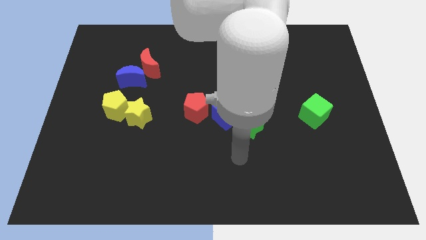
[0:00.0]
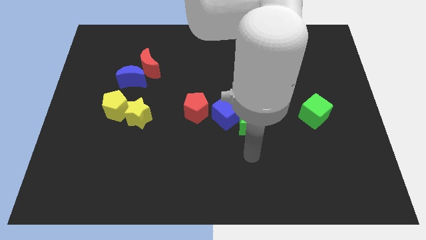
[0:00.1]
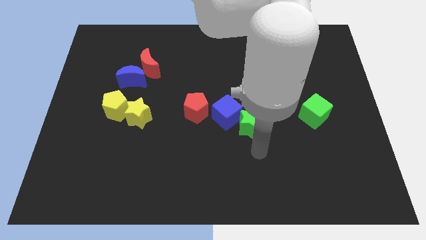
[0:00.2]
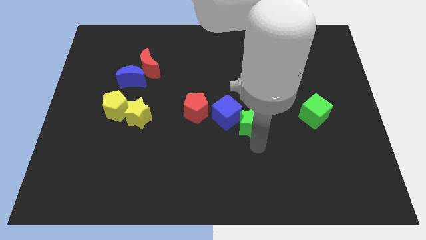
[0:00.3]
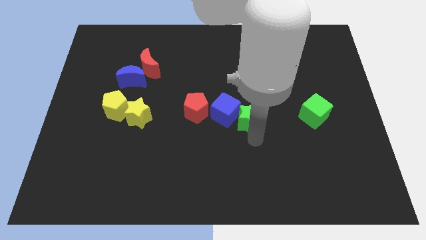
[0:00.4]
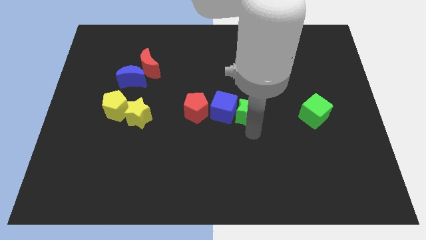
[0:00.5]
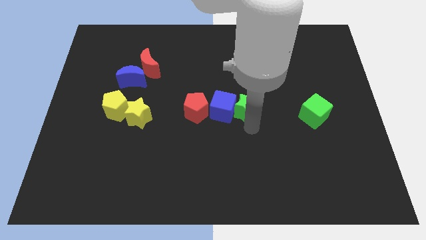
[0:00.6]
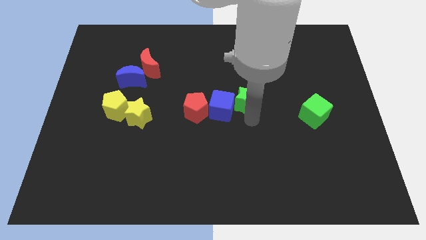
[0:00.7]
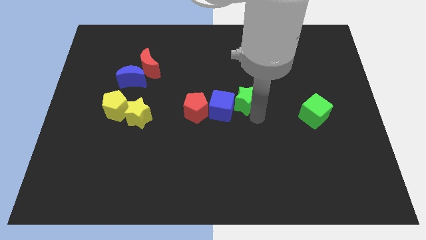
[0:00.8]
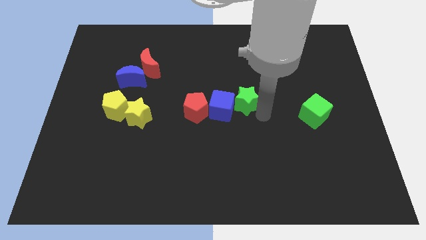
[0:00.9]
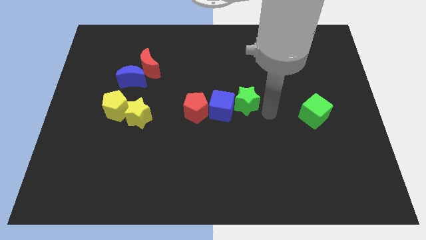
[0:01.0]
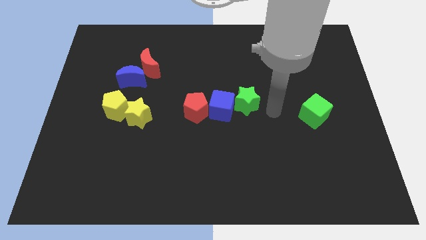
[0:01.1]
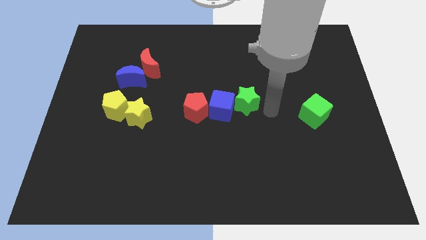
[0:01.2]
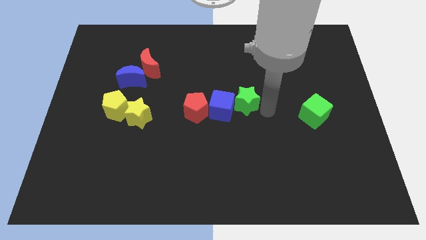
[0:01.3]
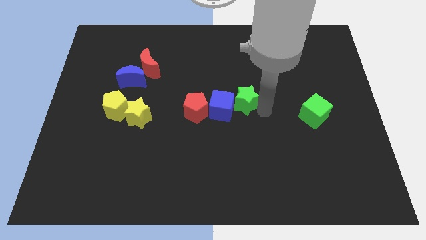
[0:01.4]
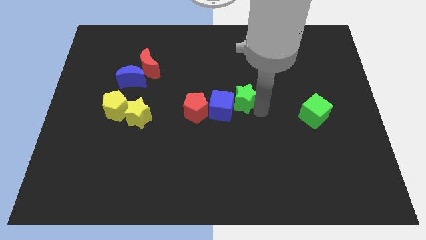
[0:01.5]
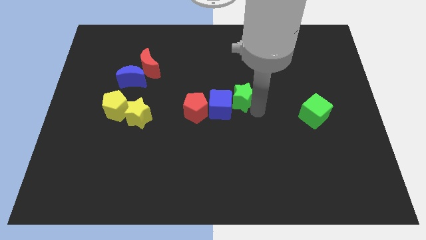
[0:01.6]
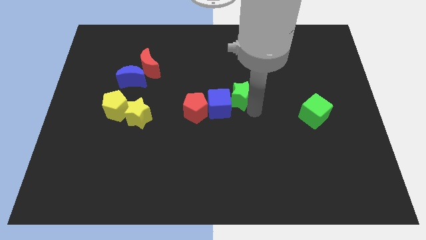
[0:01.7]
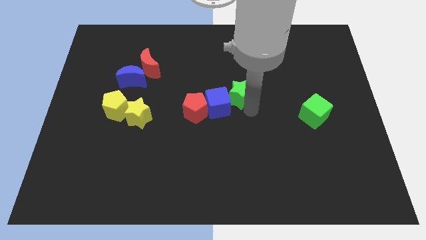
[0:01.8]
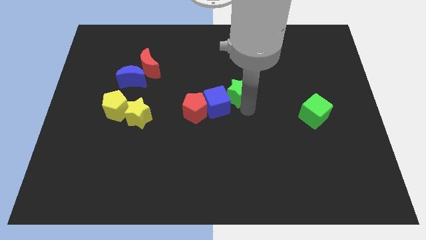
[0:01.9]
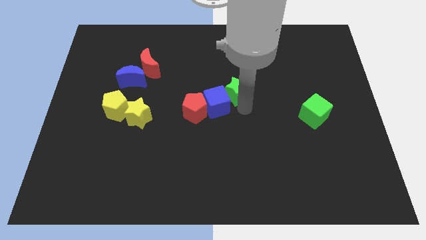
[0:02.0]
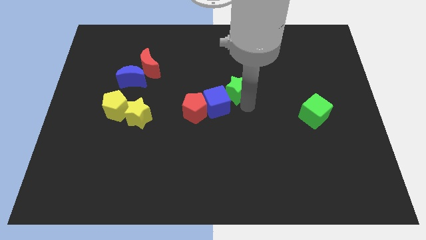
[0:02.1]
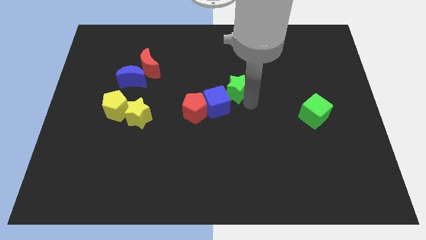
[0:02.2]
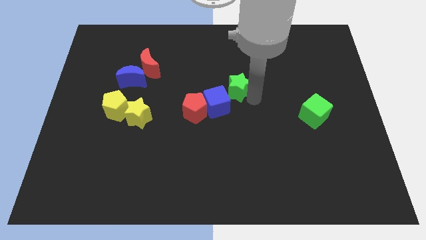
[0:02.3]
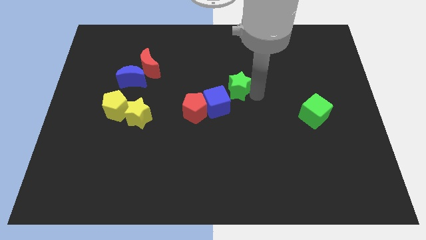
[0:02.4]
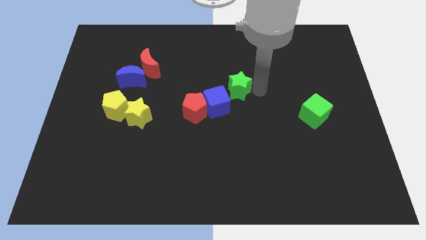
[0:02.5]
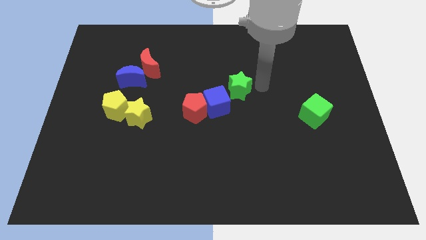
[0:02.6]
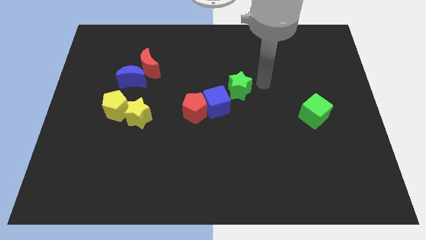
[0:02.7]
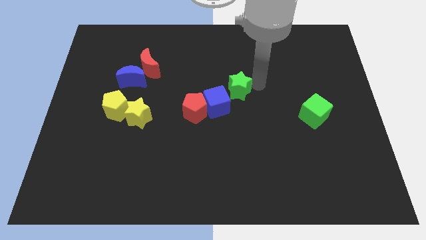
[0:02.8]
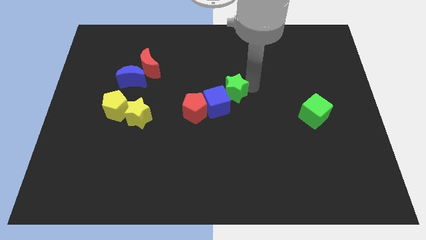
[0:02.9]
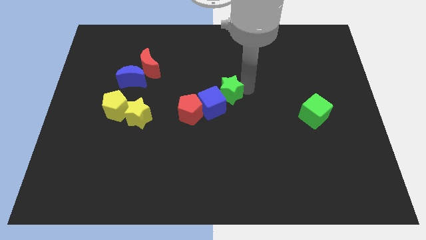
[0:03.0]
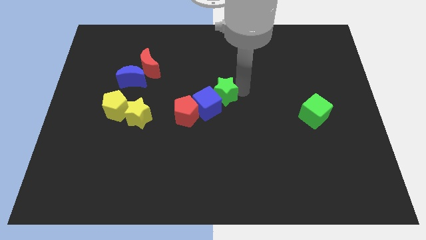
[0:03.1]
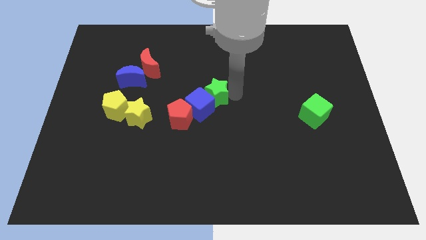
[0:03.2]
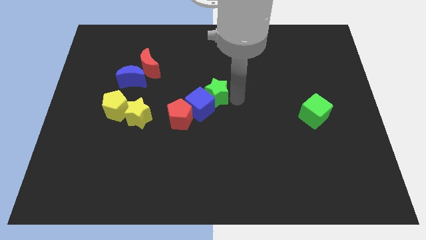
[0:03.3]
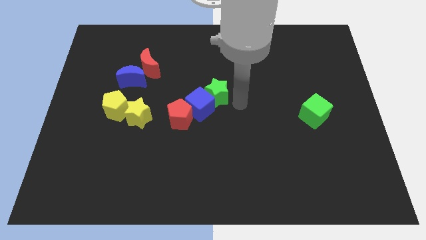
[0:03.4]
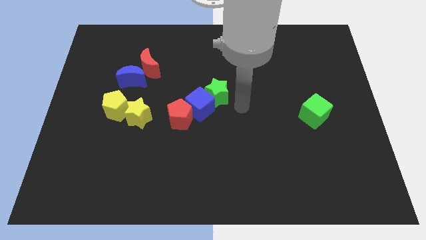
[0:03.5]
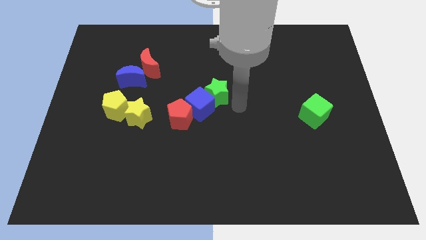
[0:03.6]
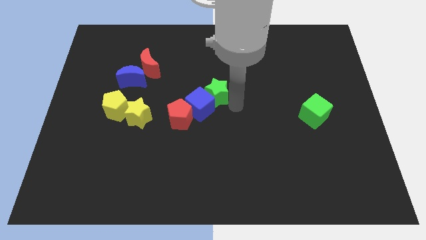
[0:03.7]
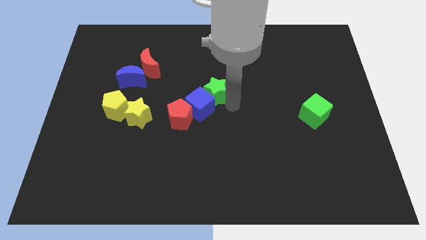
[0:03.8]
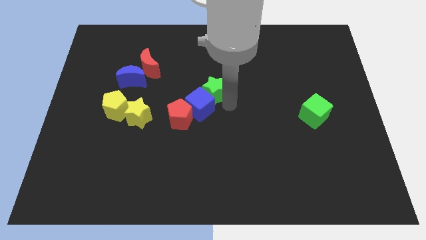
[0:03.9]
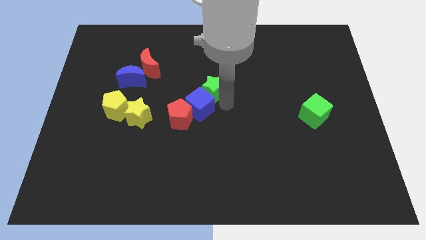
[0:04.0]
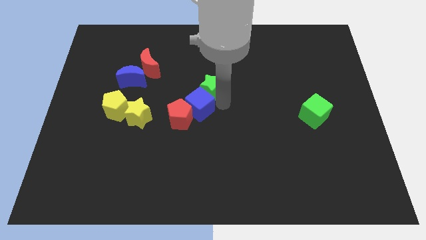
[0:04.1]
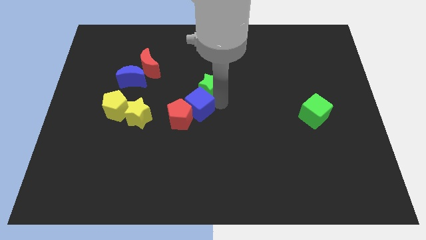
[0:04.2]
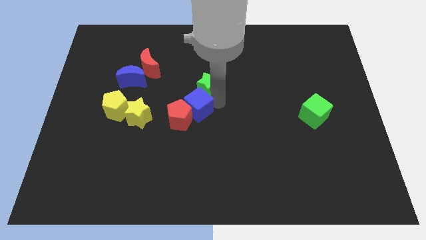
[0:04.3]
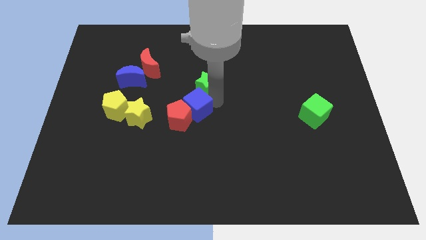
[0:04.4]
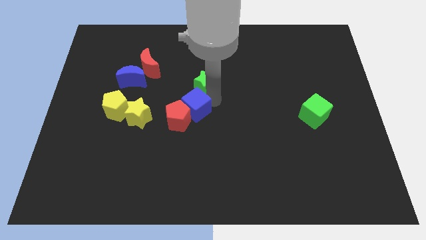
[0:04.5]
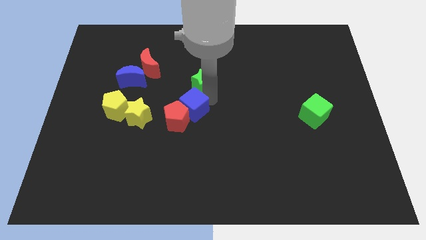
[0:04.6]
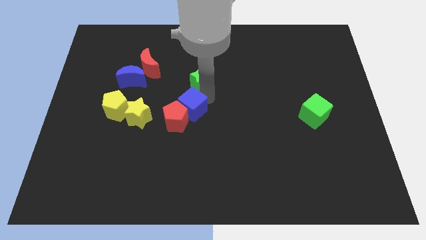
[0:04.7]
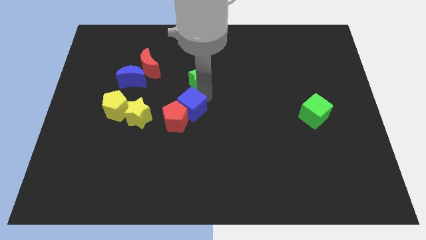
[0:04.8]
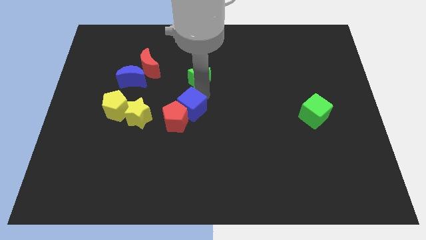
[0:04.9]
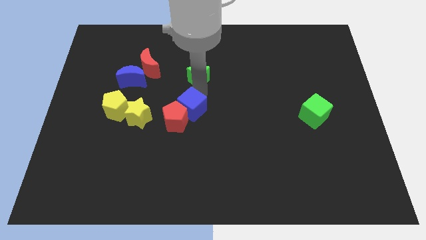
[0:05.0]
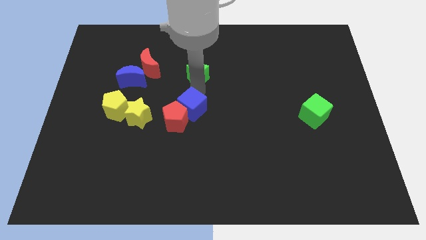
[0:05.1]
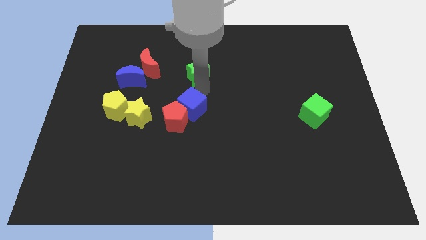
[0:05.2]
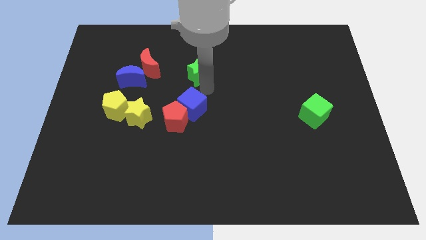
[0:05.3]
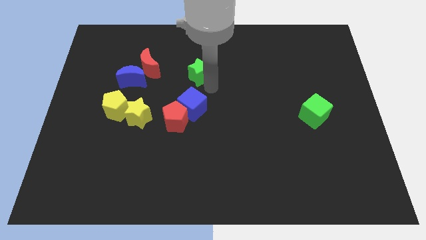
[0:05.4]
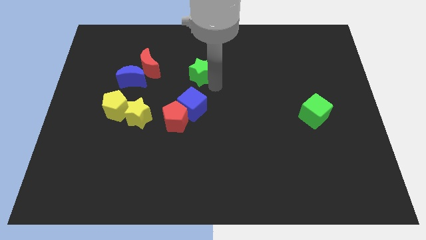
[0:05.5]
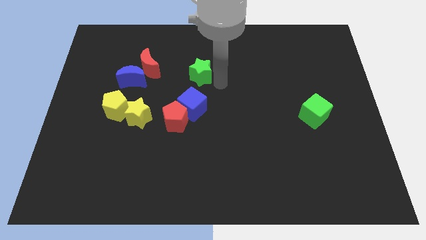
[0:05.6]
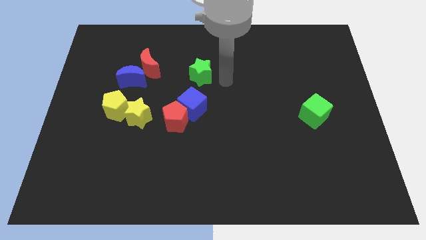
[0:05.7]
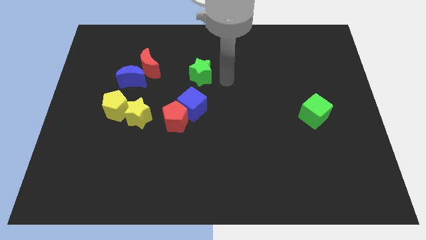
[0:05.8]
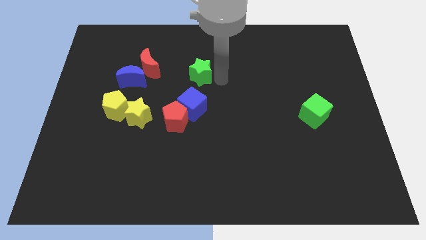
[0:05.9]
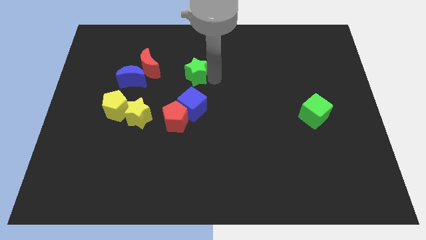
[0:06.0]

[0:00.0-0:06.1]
move the green star up and to the left diagonally

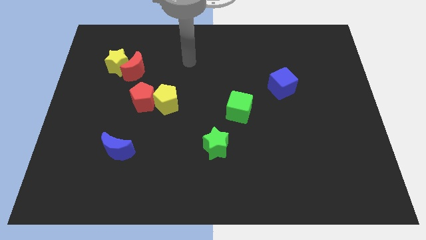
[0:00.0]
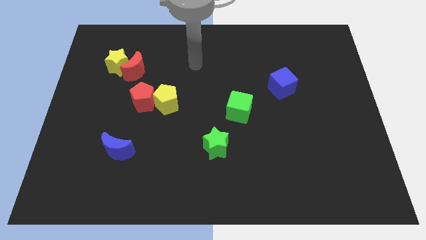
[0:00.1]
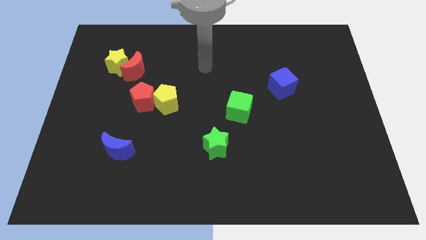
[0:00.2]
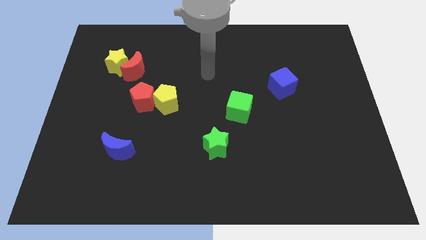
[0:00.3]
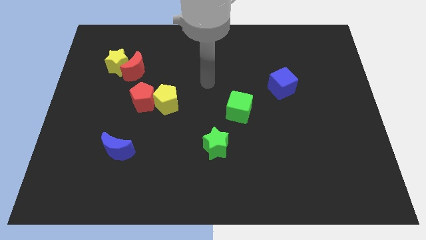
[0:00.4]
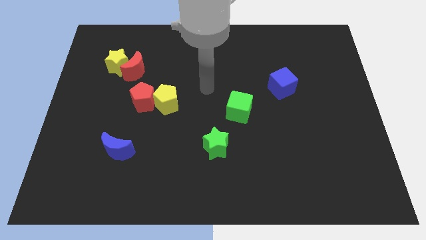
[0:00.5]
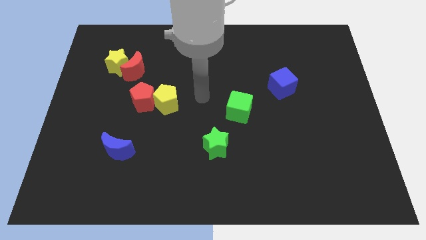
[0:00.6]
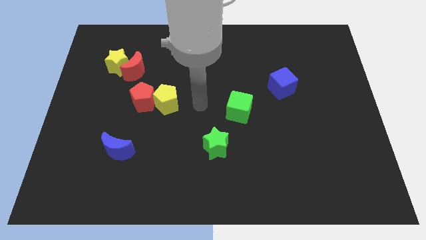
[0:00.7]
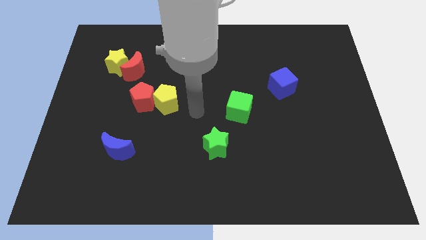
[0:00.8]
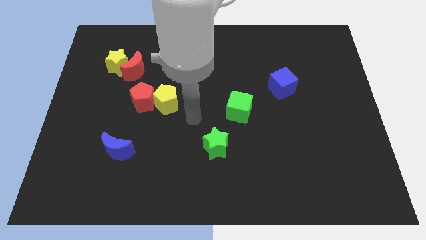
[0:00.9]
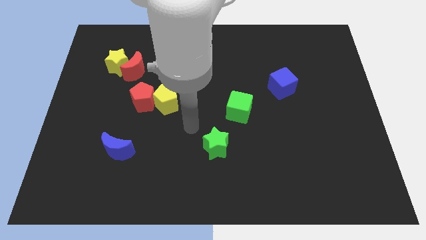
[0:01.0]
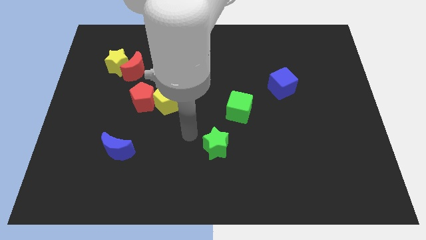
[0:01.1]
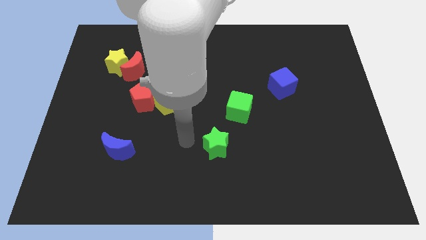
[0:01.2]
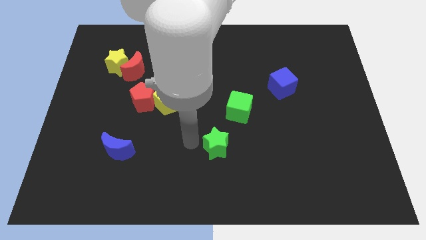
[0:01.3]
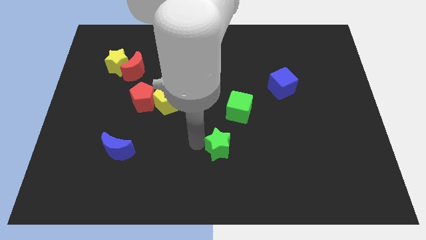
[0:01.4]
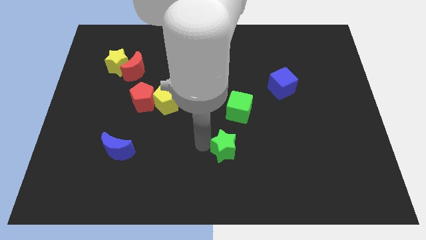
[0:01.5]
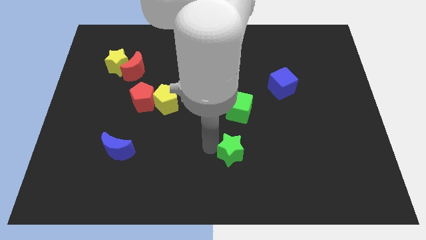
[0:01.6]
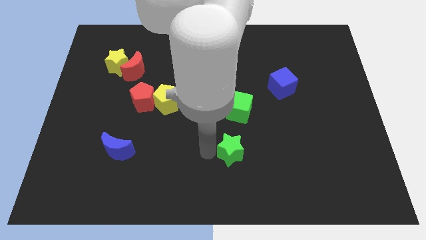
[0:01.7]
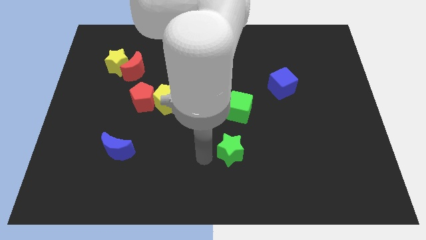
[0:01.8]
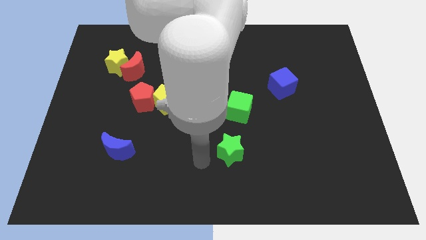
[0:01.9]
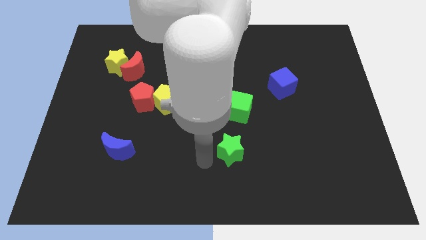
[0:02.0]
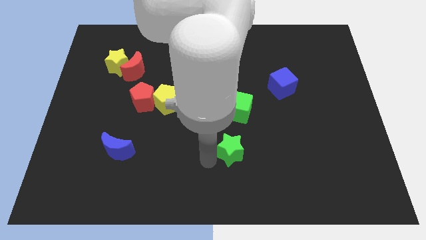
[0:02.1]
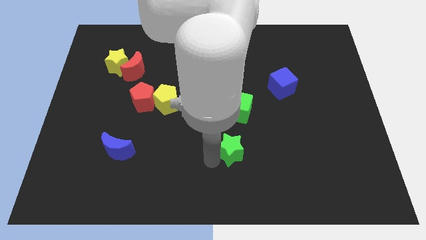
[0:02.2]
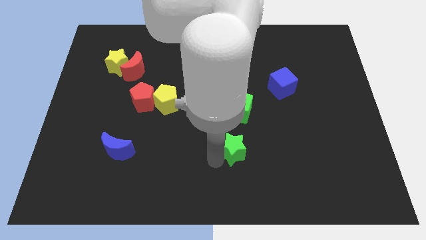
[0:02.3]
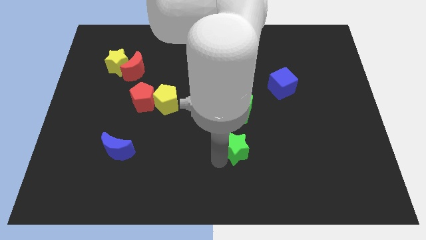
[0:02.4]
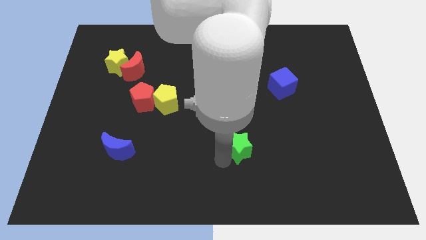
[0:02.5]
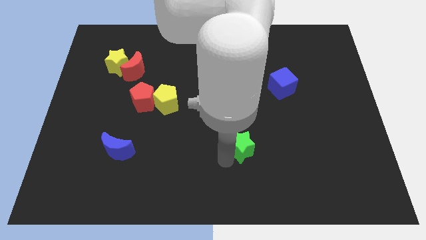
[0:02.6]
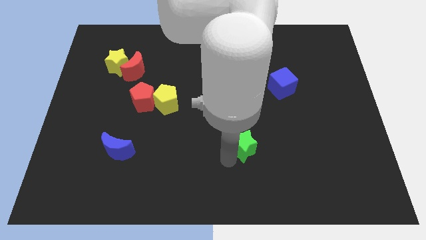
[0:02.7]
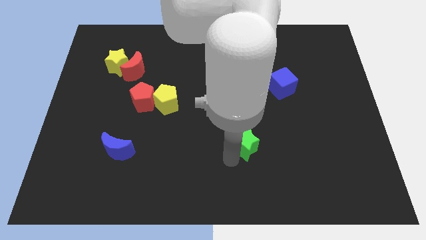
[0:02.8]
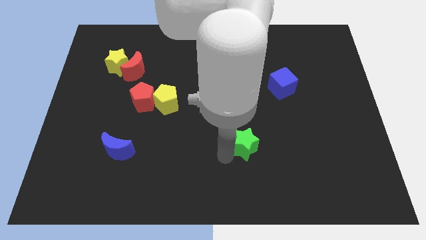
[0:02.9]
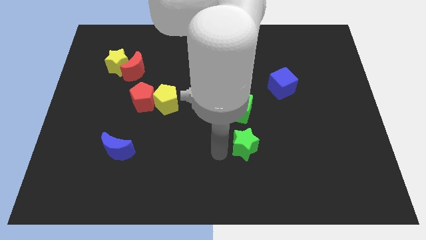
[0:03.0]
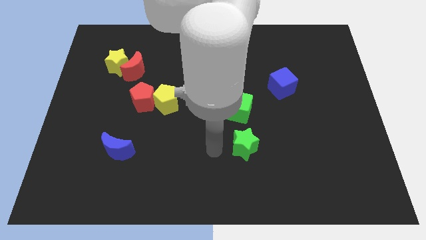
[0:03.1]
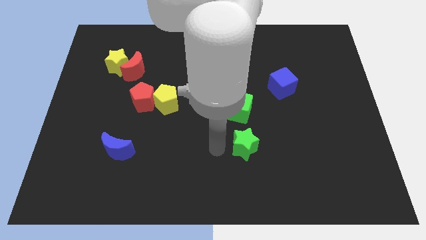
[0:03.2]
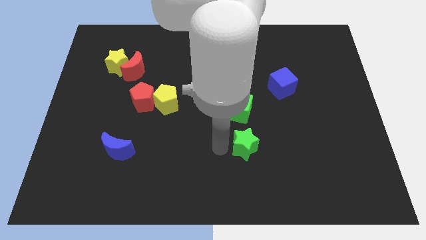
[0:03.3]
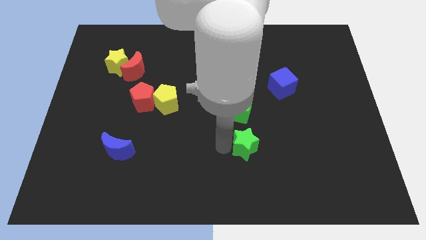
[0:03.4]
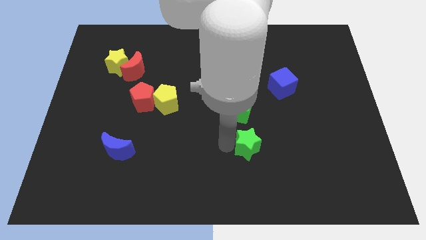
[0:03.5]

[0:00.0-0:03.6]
push the green star somewhat to the right
